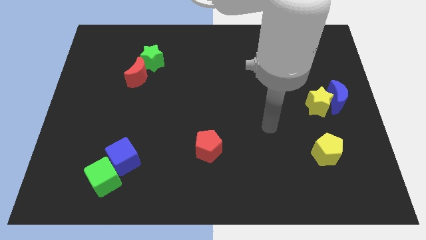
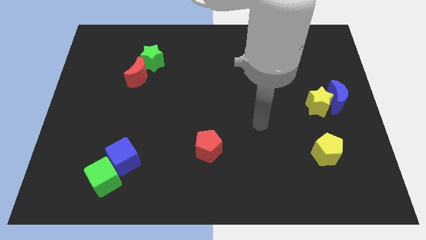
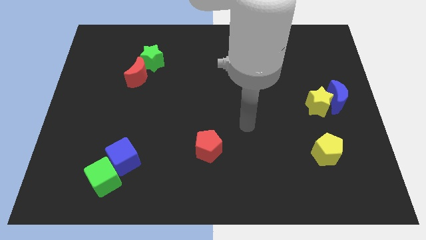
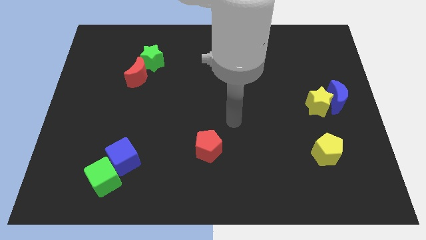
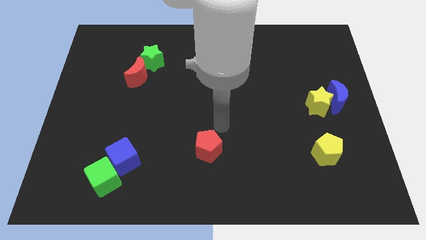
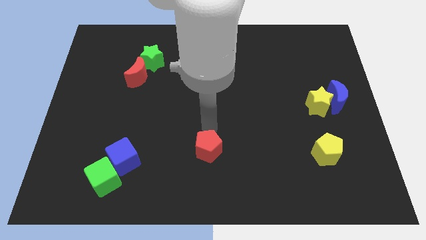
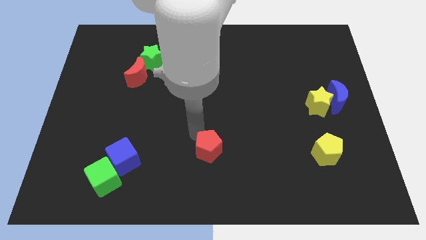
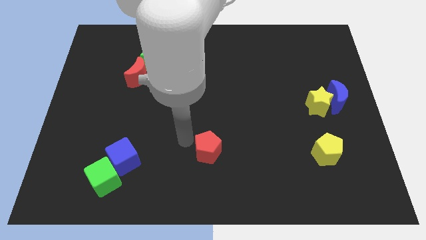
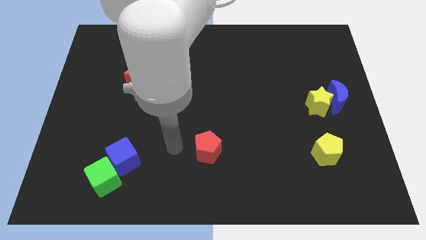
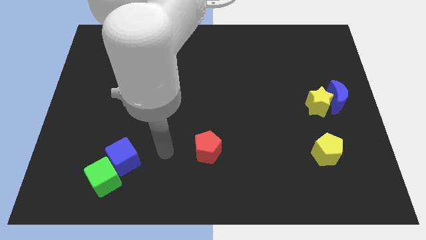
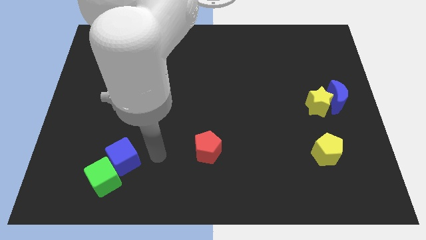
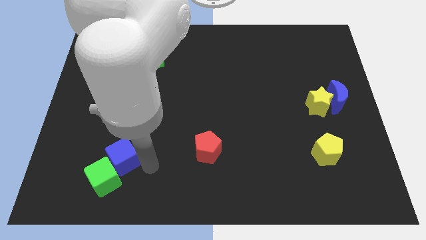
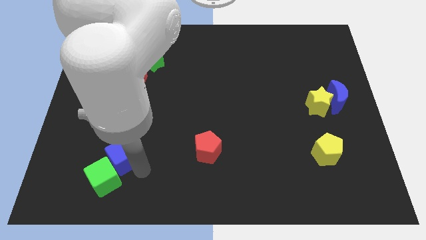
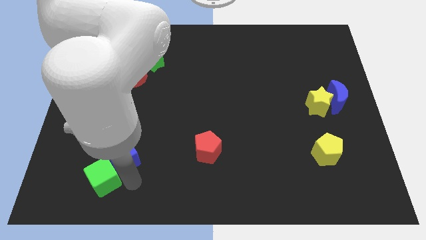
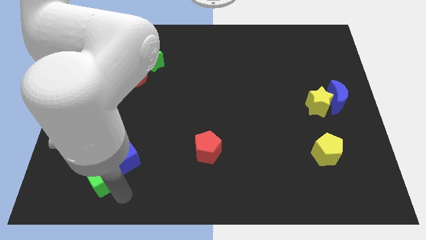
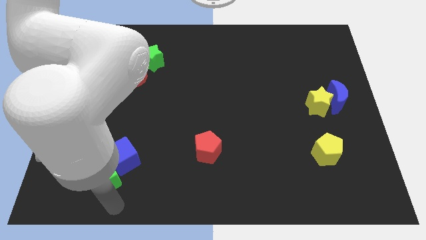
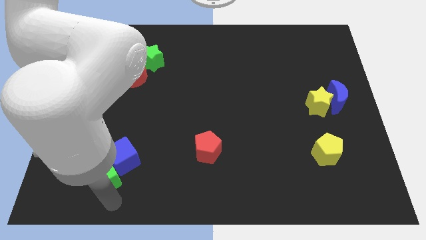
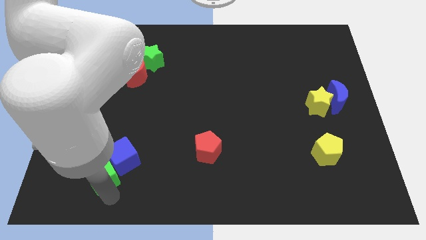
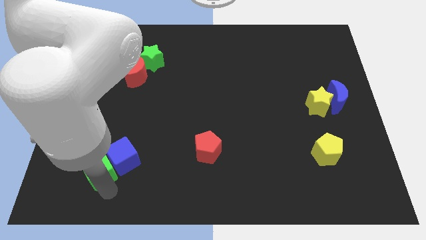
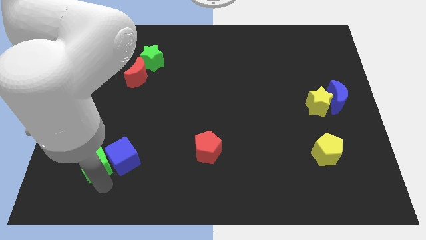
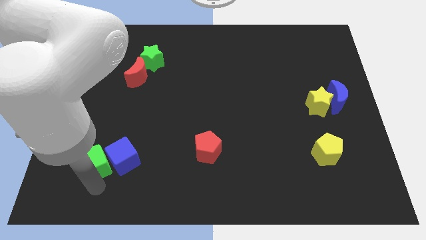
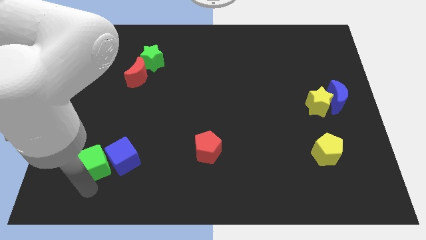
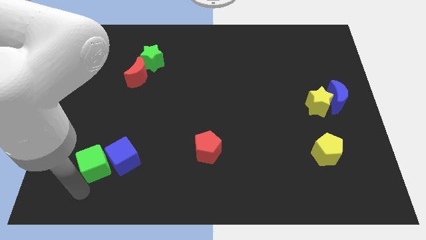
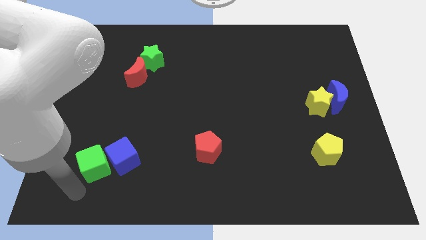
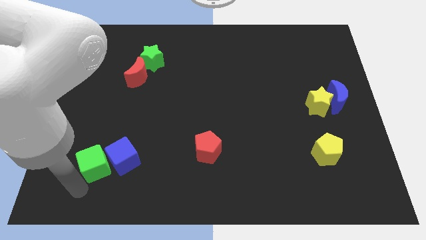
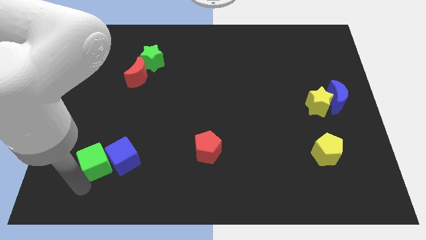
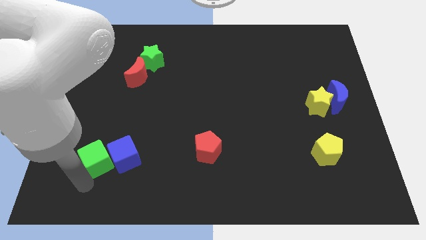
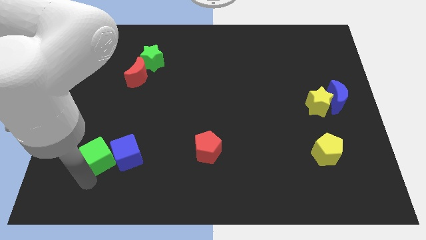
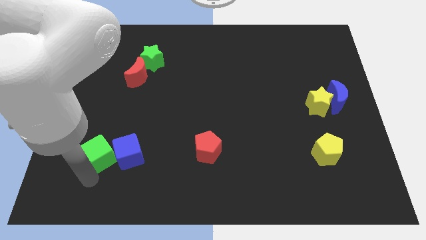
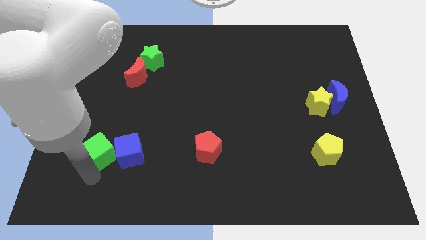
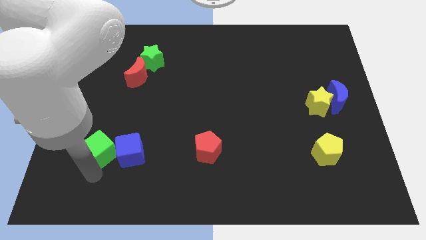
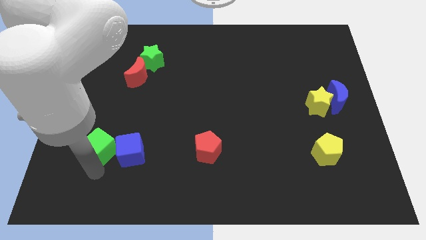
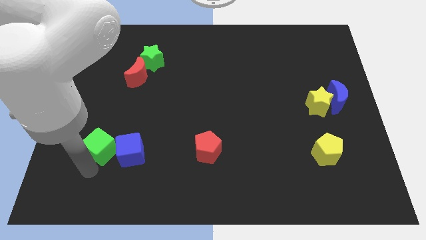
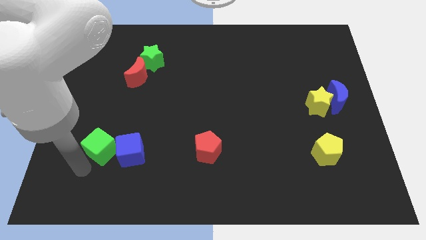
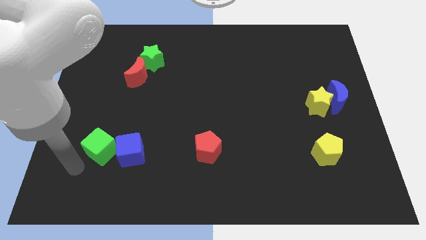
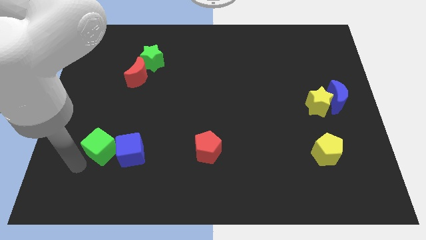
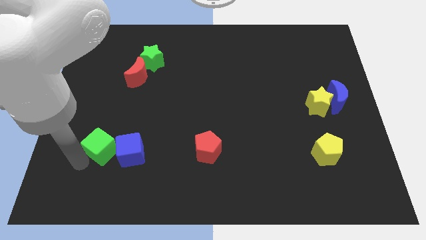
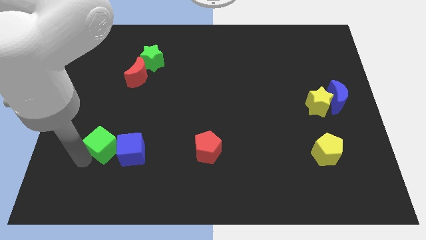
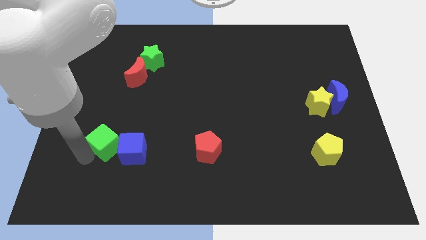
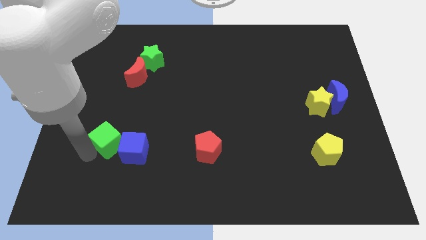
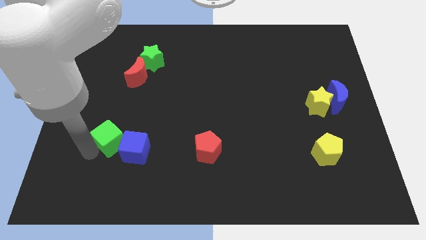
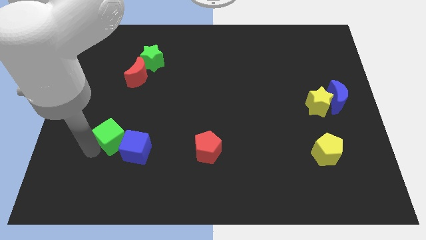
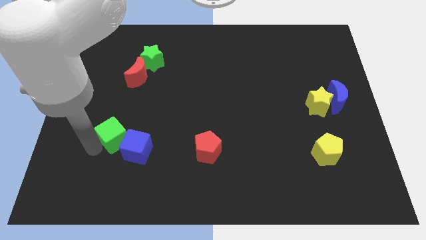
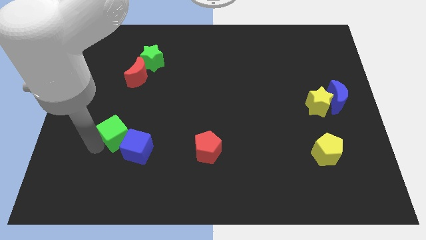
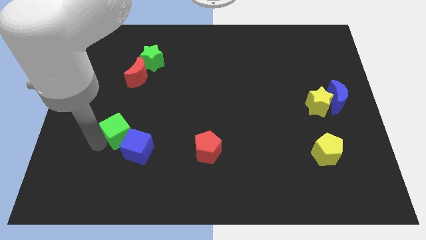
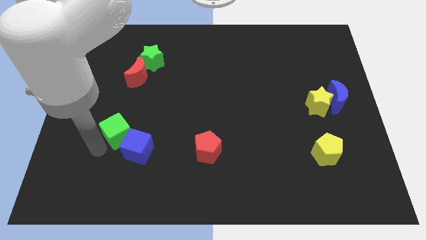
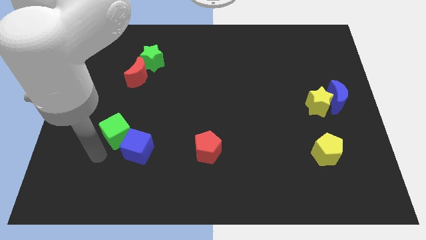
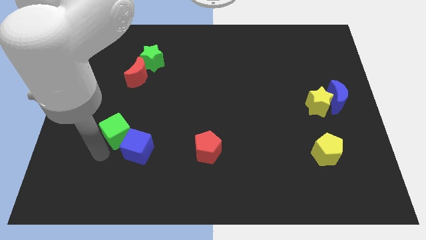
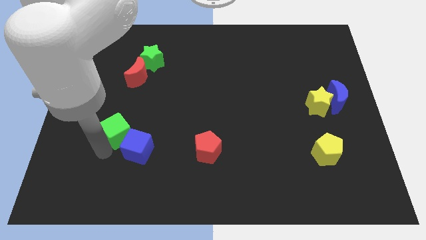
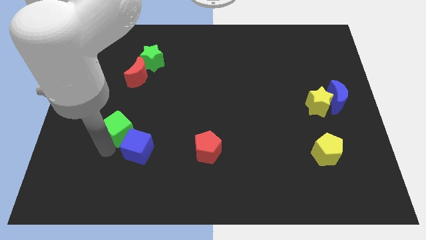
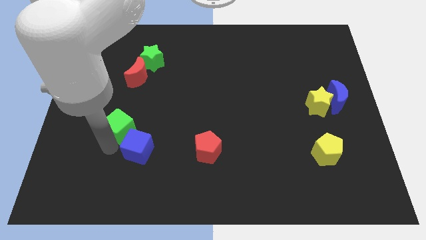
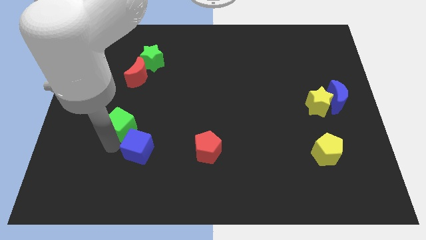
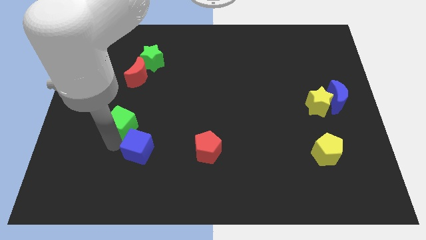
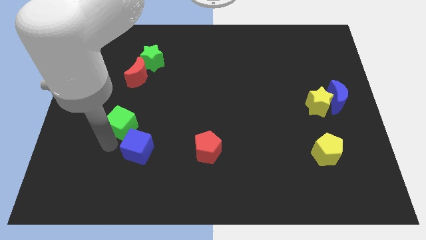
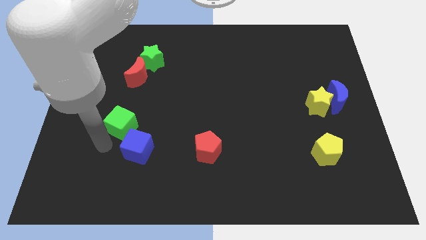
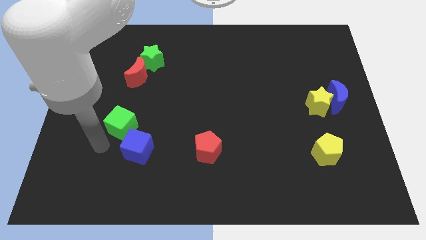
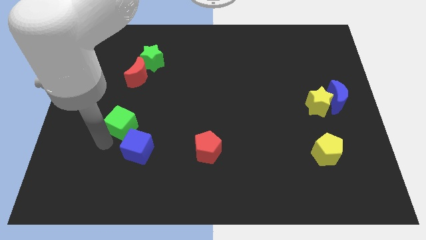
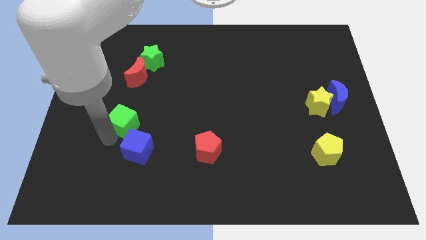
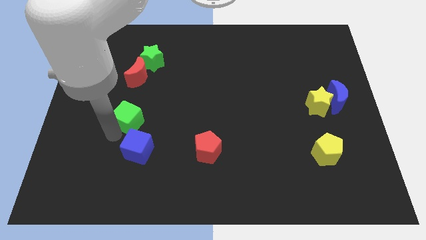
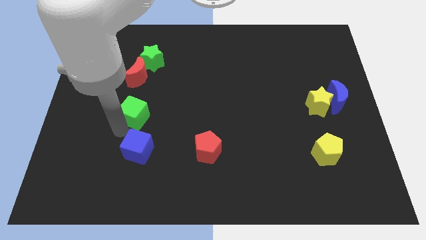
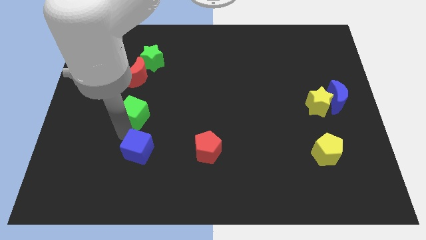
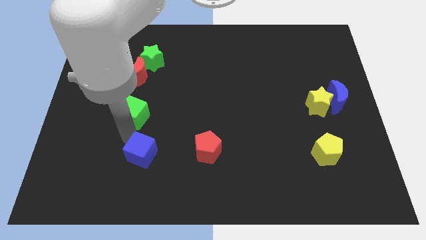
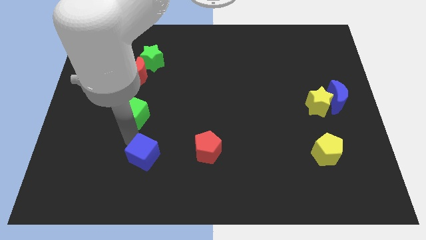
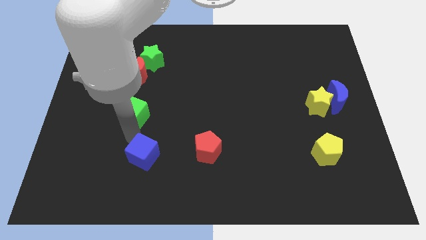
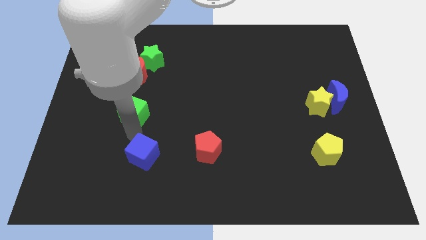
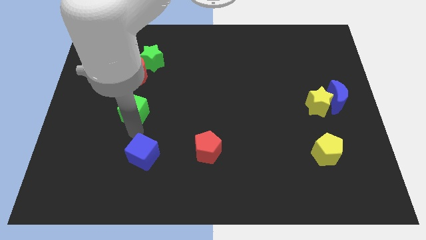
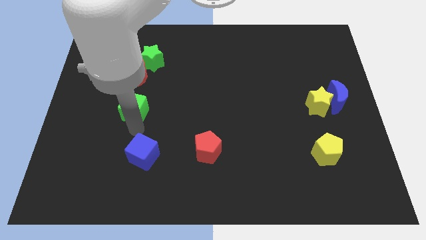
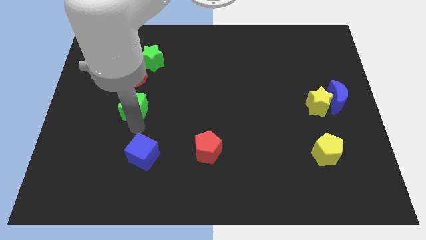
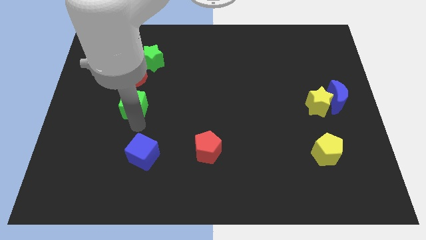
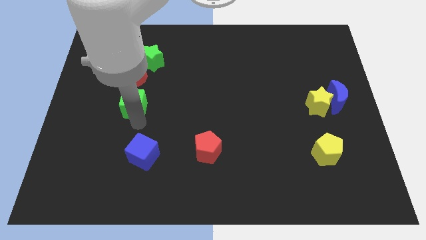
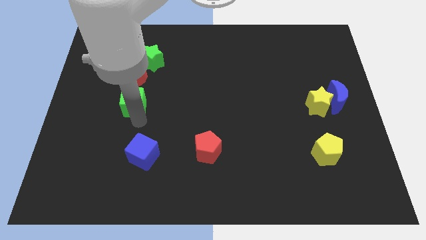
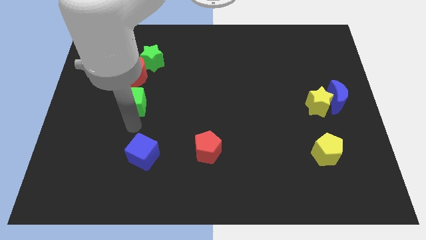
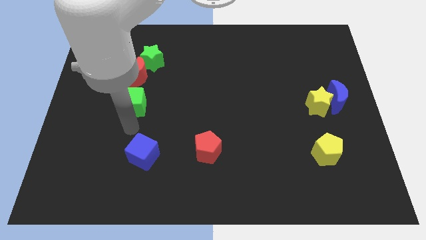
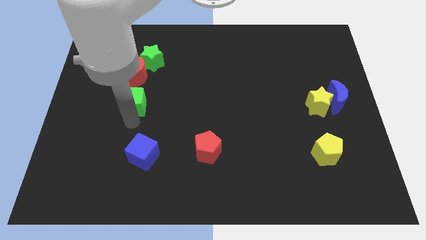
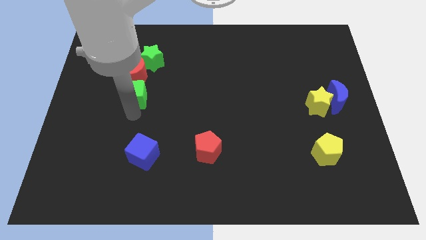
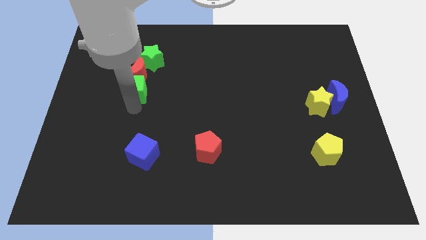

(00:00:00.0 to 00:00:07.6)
push the green cube close to the red moon
